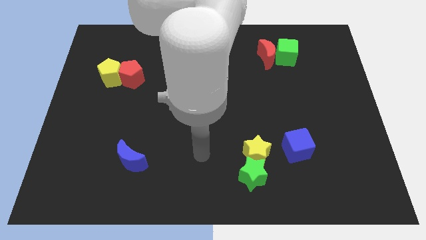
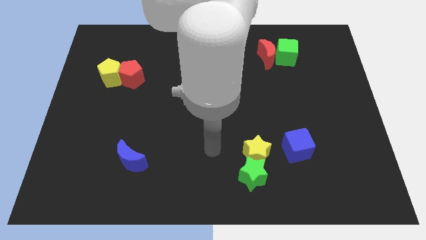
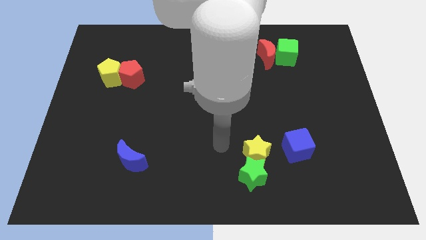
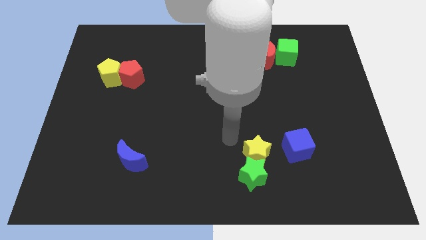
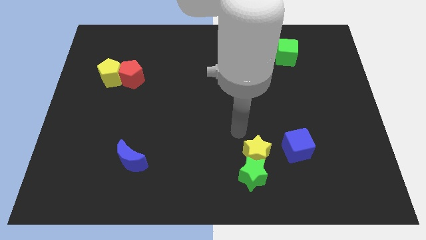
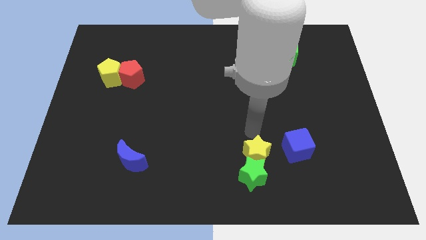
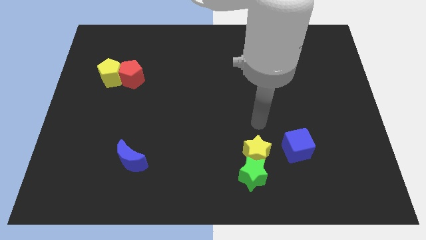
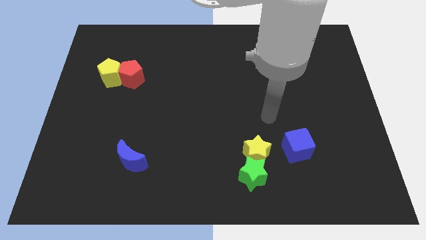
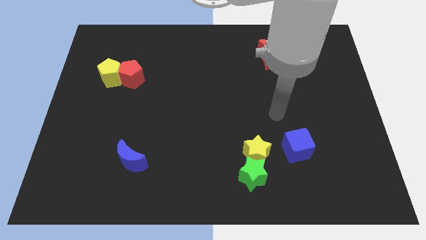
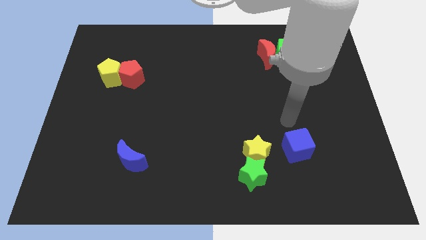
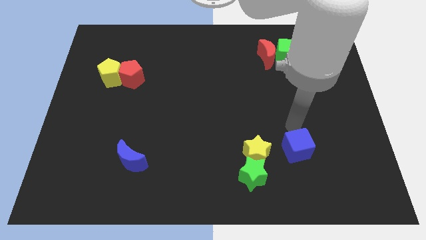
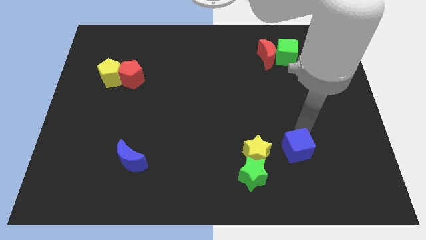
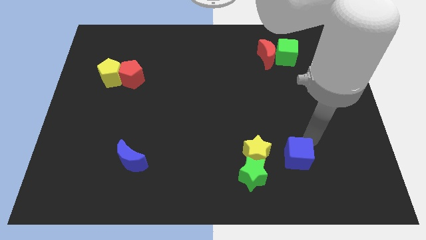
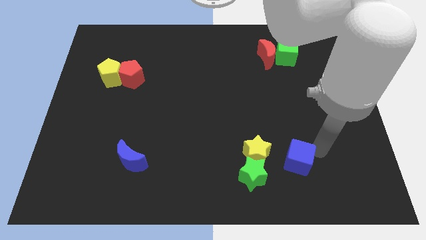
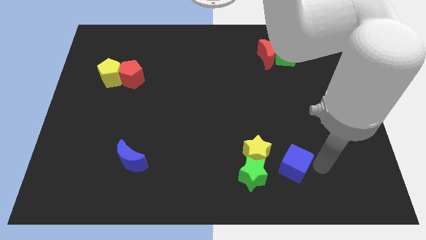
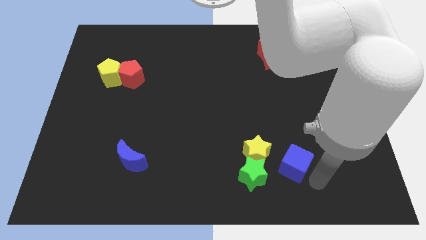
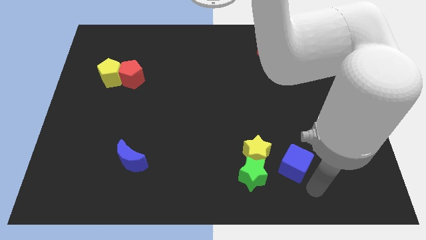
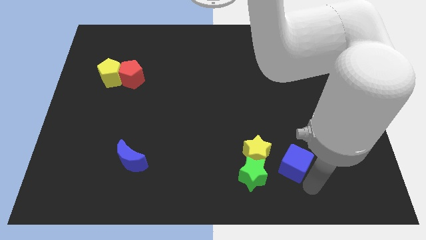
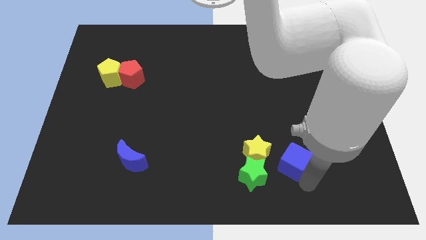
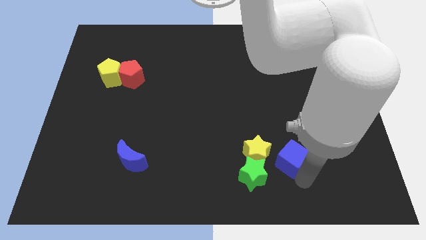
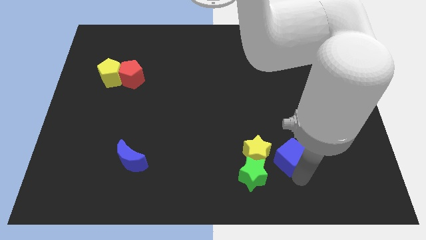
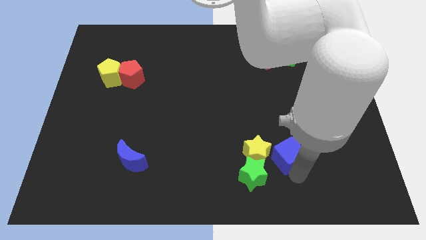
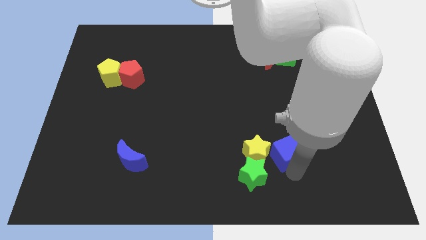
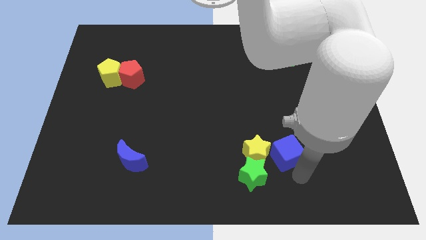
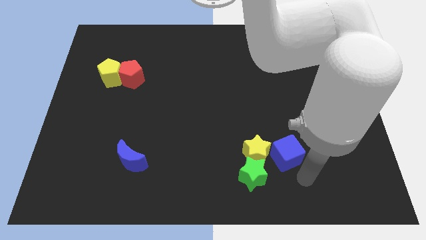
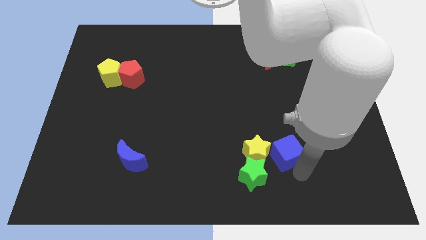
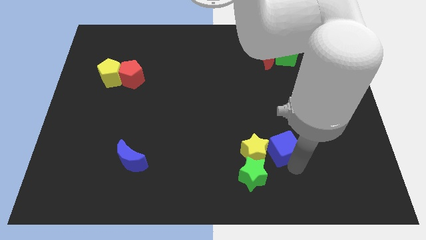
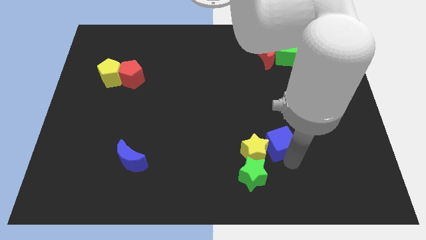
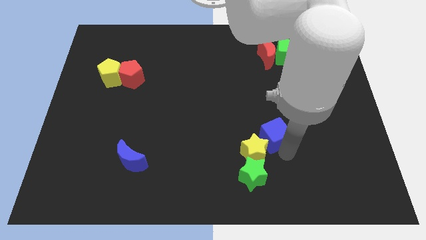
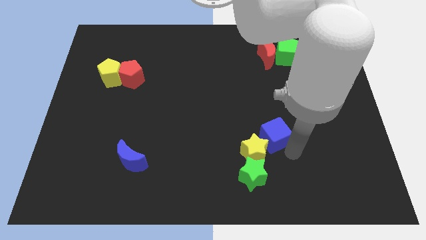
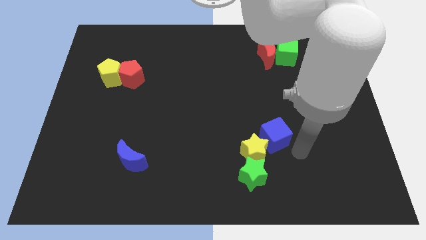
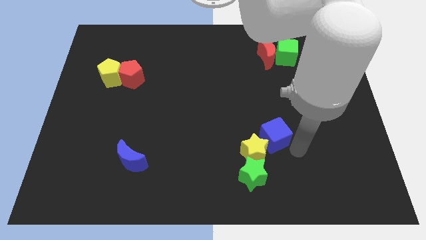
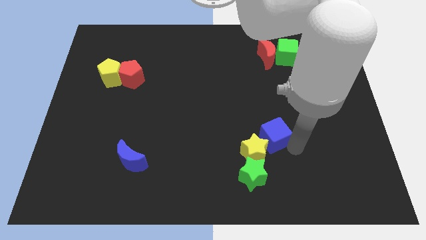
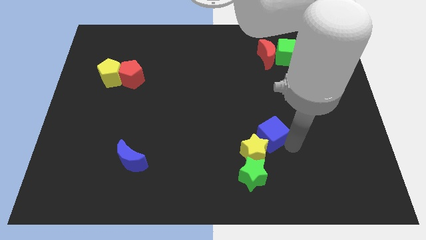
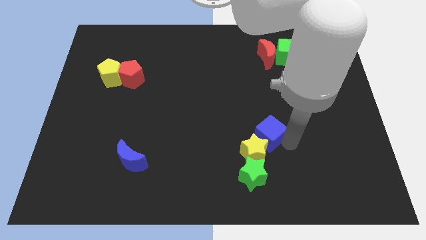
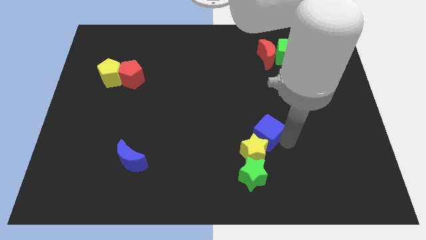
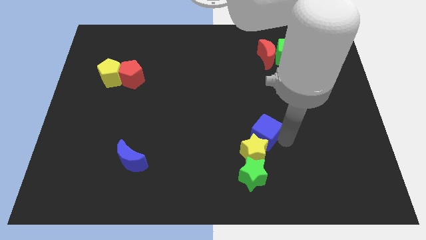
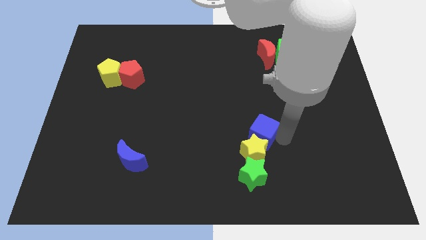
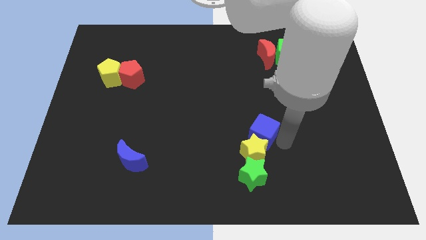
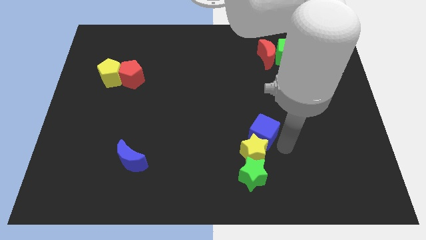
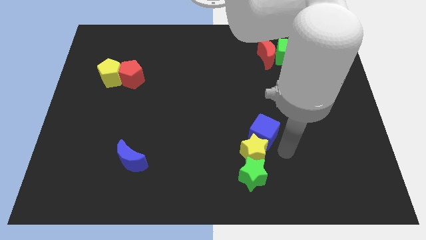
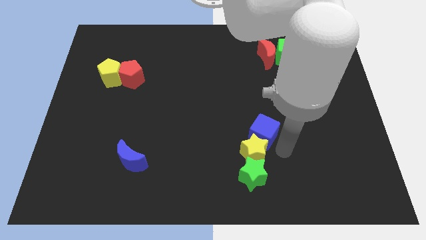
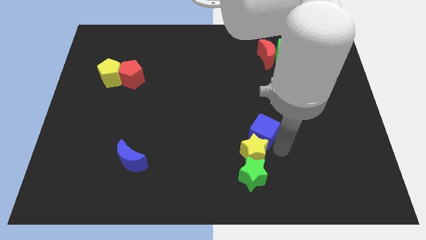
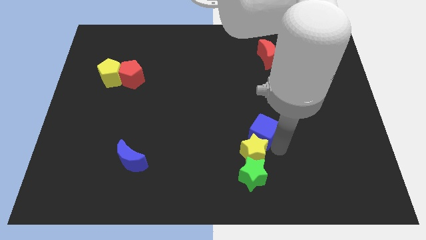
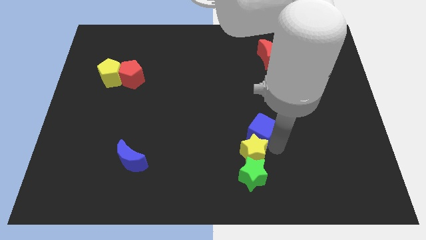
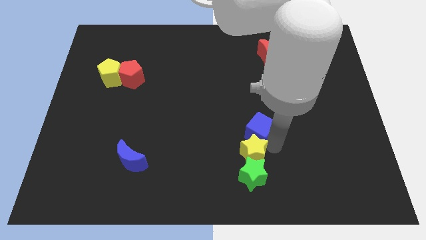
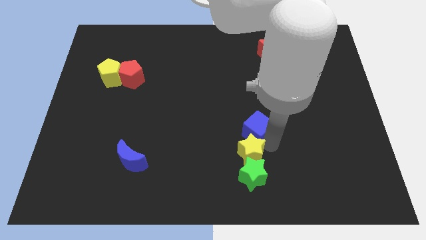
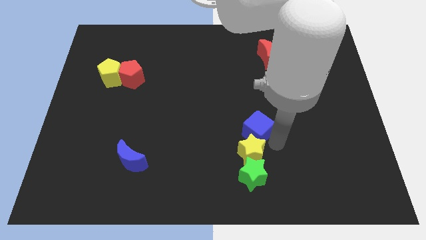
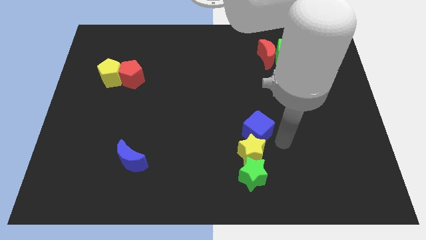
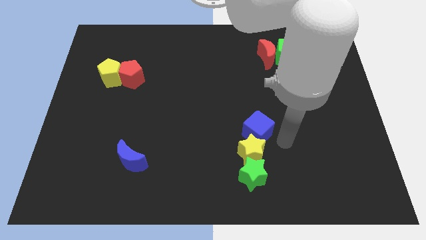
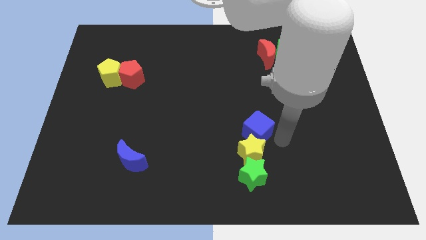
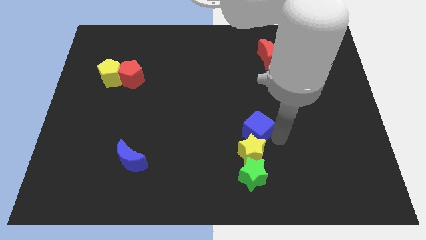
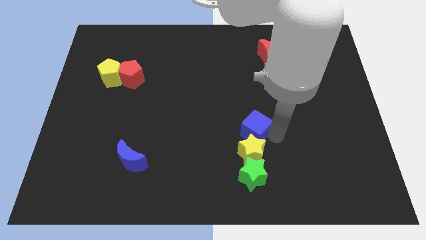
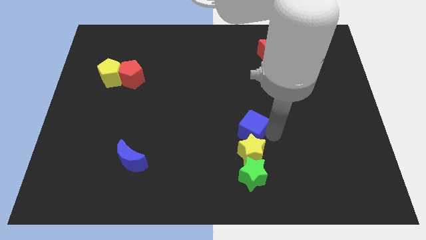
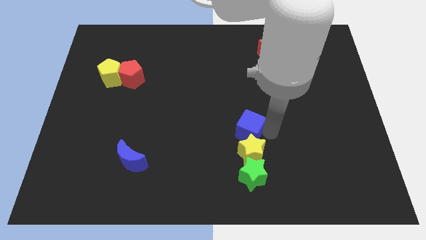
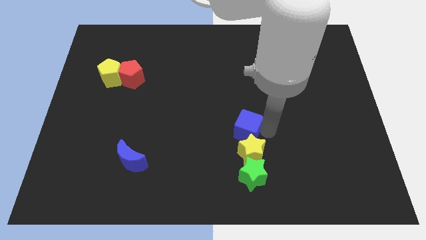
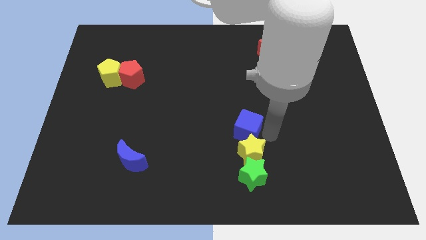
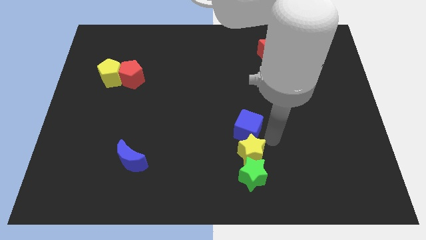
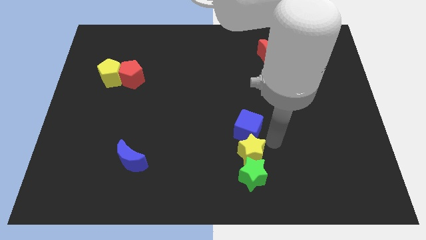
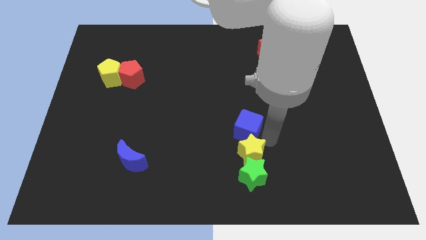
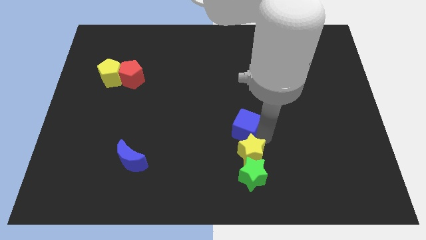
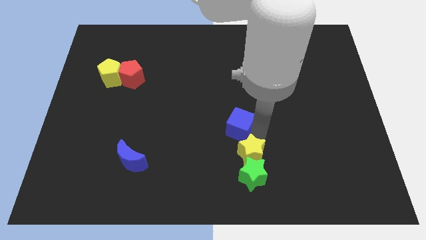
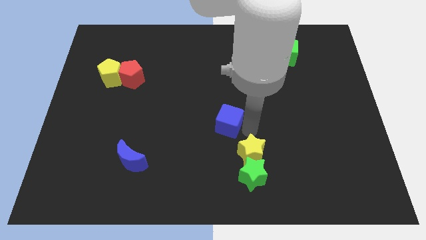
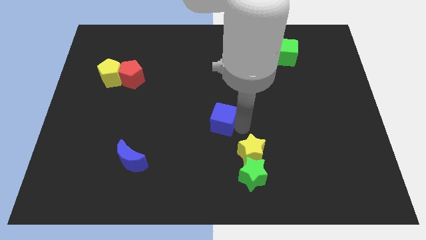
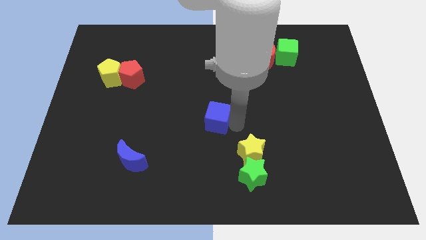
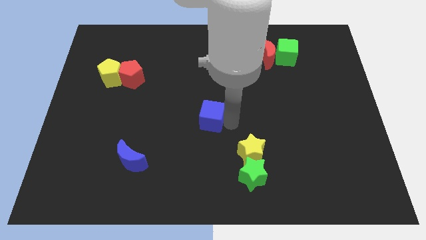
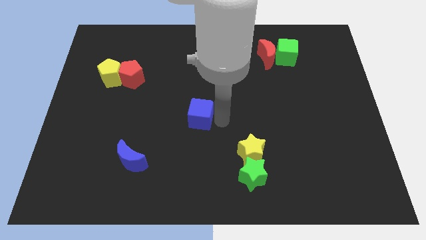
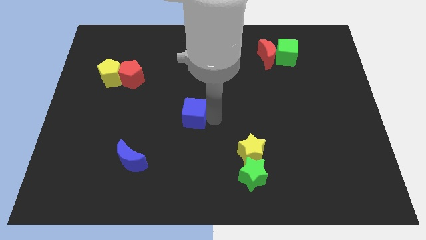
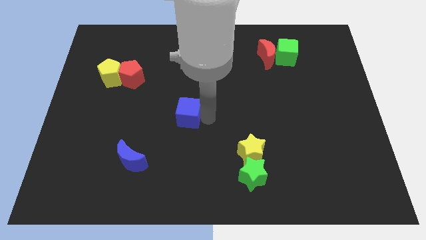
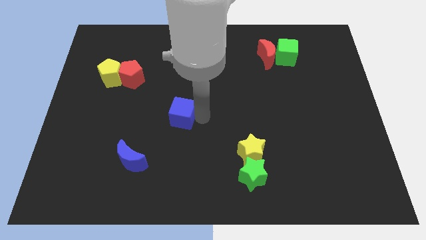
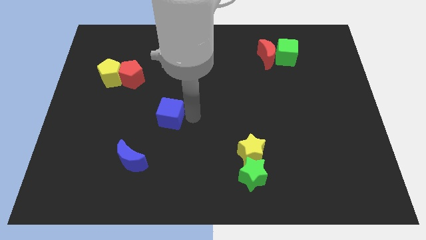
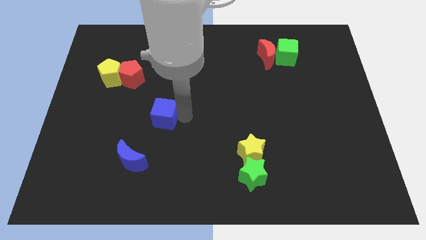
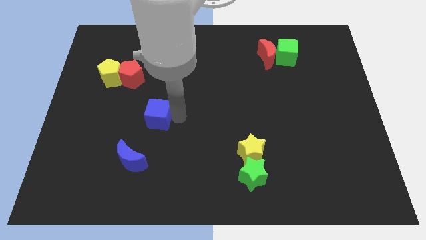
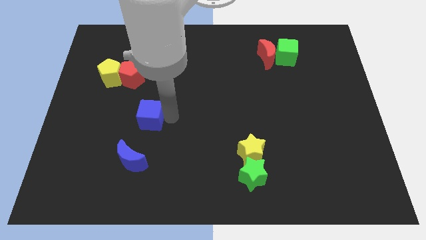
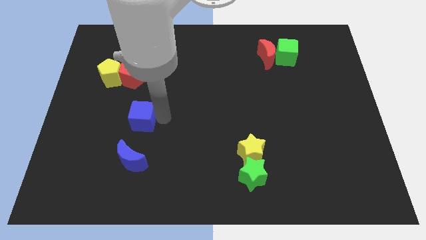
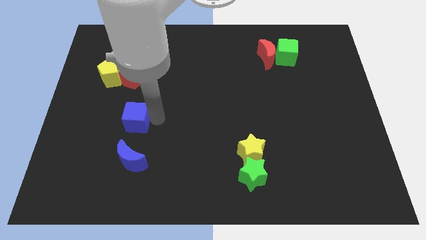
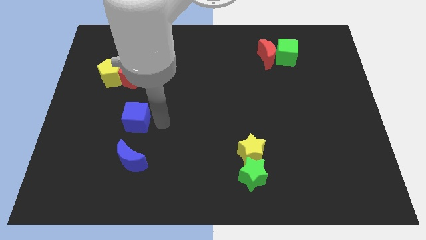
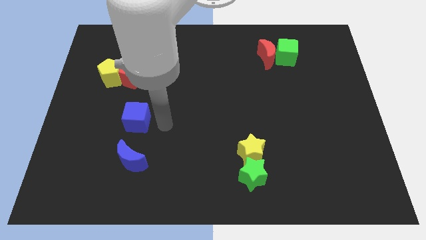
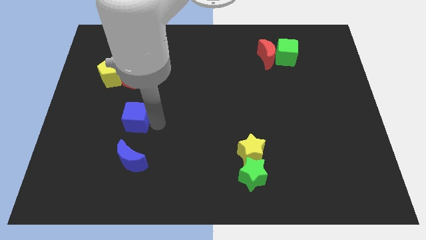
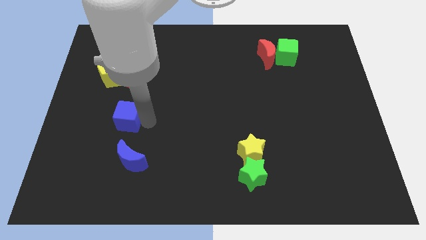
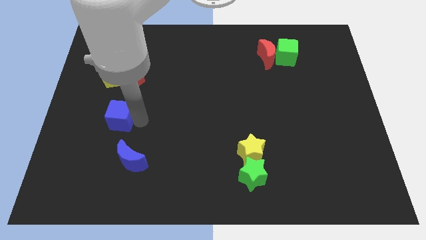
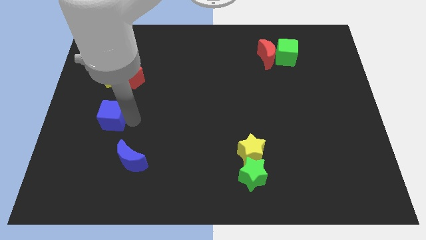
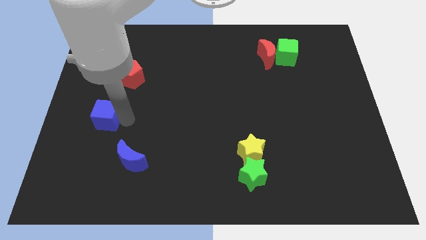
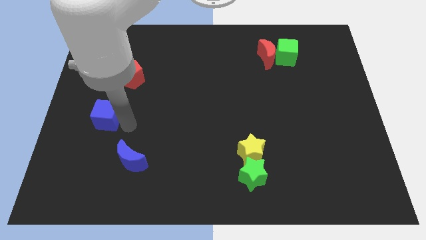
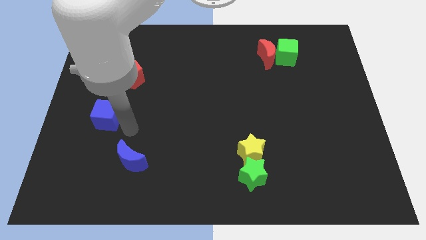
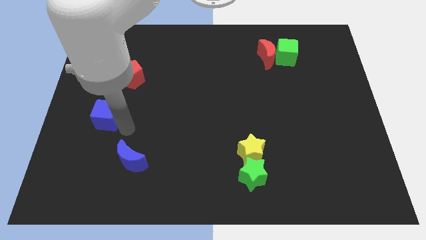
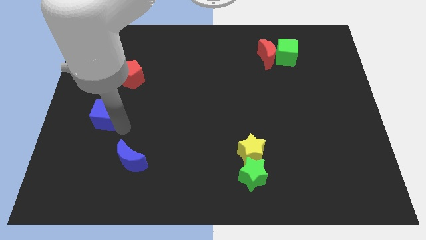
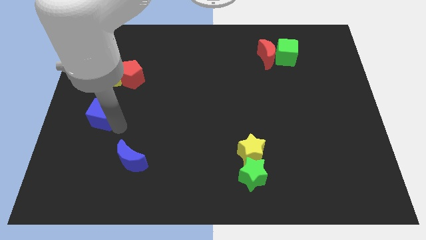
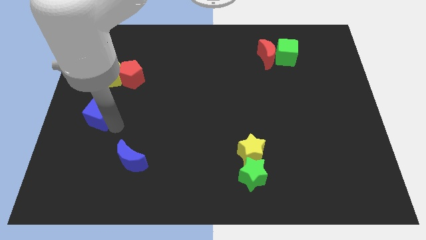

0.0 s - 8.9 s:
put the blue cube to the left side of the board
